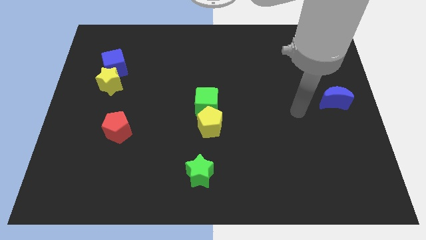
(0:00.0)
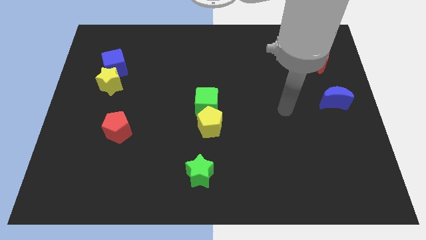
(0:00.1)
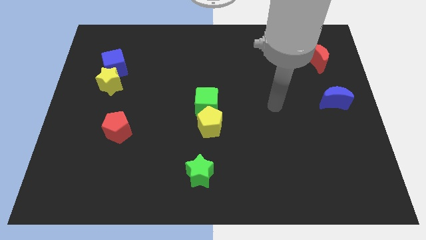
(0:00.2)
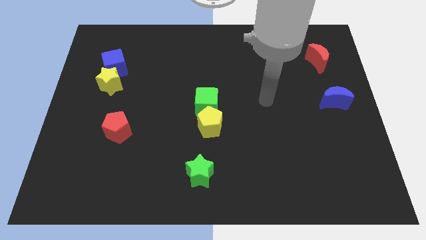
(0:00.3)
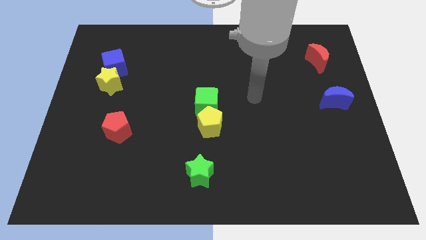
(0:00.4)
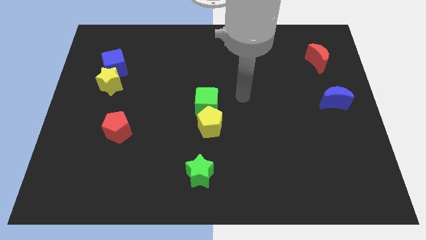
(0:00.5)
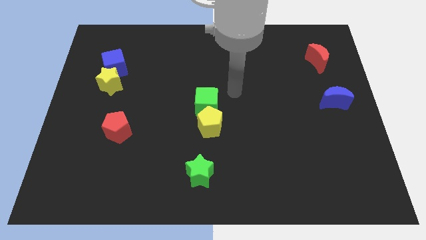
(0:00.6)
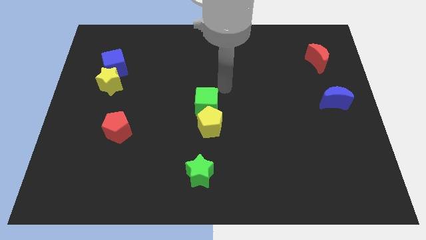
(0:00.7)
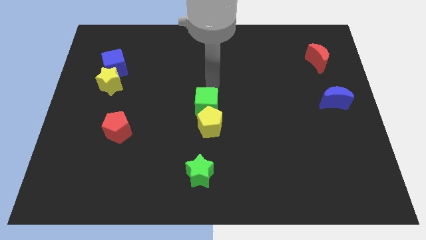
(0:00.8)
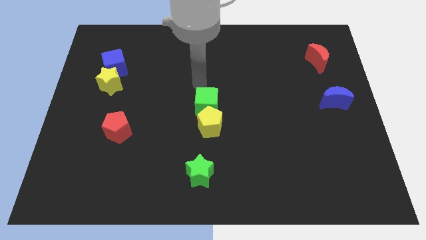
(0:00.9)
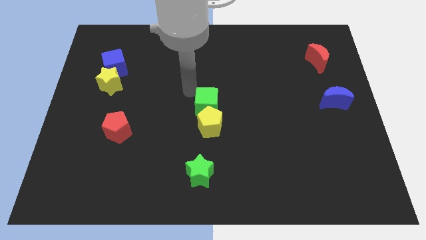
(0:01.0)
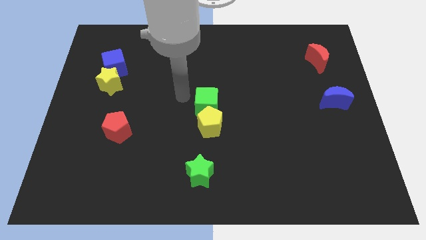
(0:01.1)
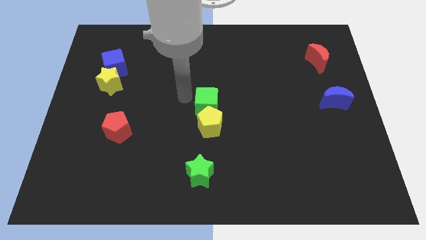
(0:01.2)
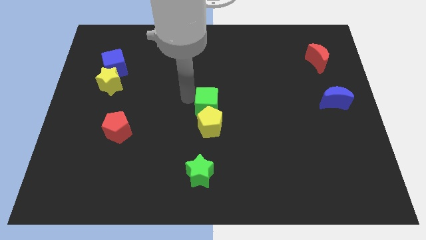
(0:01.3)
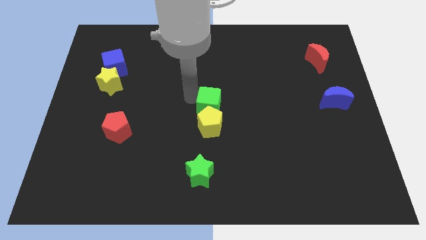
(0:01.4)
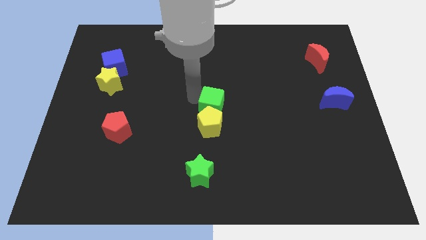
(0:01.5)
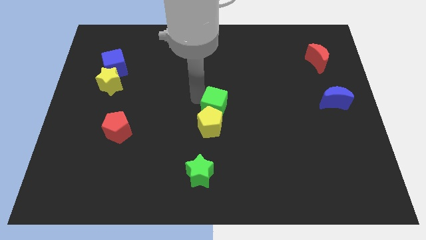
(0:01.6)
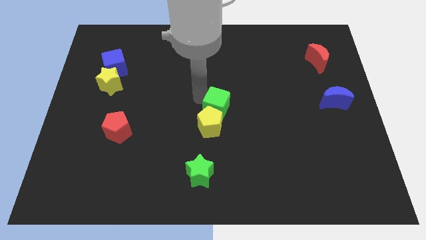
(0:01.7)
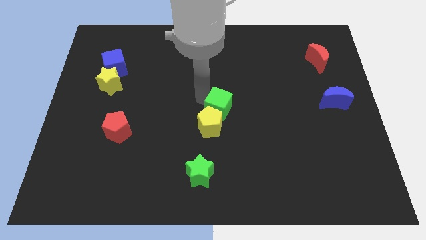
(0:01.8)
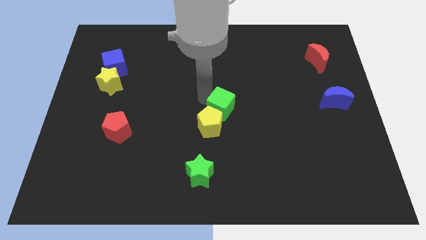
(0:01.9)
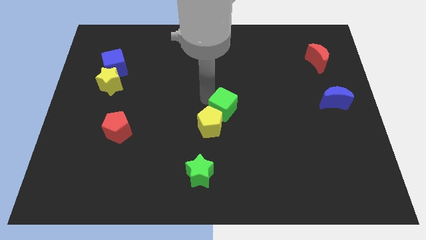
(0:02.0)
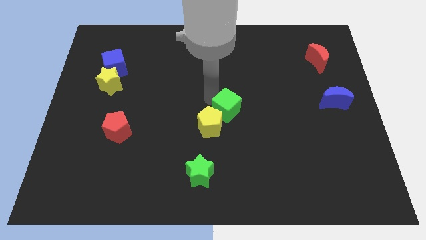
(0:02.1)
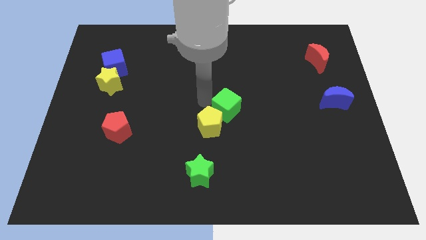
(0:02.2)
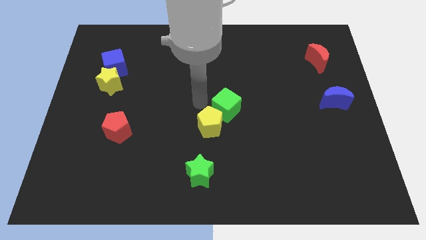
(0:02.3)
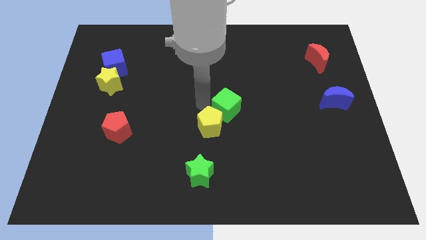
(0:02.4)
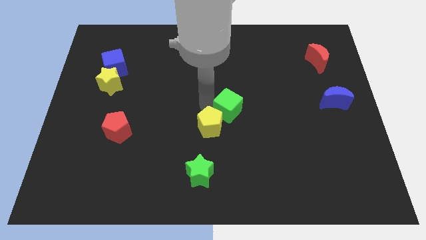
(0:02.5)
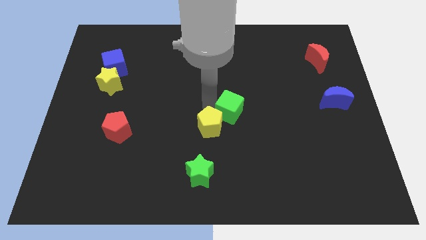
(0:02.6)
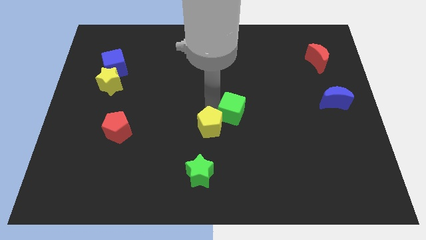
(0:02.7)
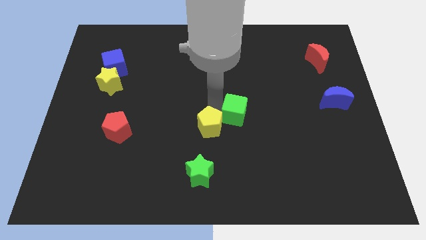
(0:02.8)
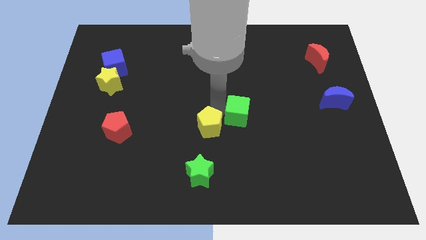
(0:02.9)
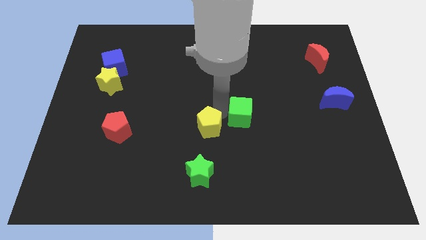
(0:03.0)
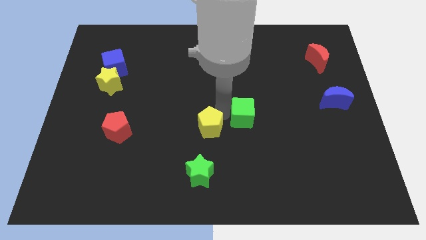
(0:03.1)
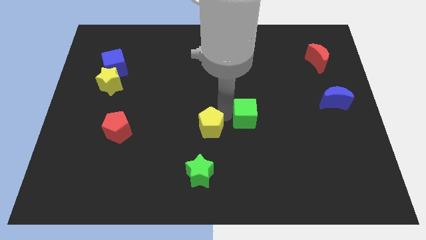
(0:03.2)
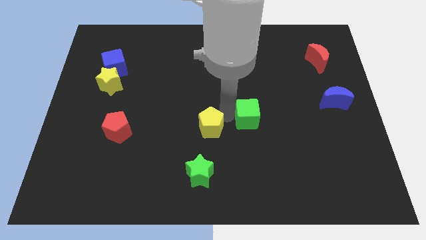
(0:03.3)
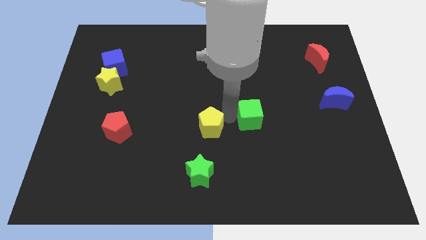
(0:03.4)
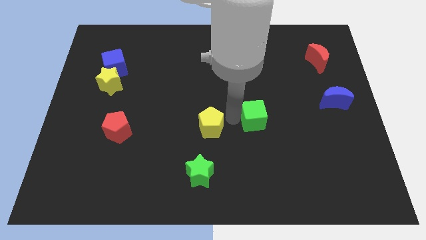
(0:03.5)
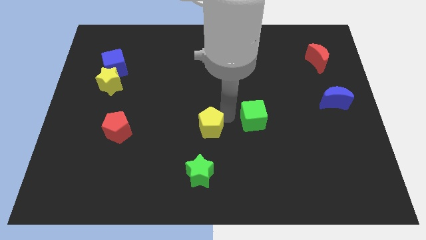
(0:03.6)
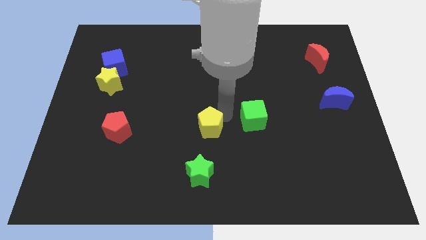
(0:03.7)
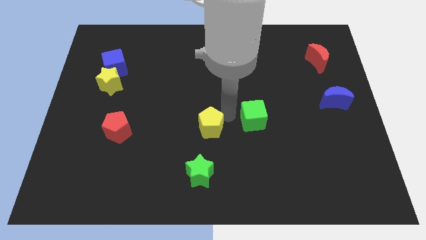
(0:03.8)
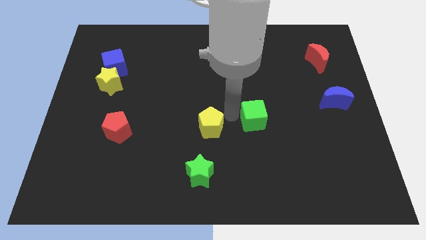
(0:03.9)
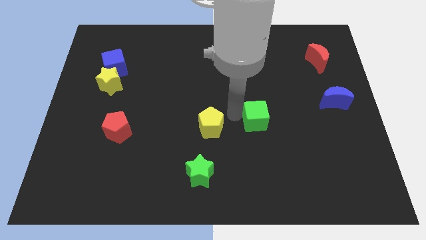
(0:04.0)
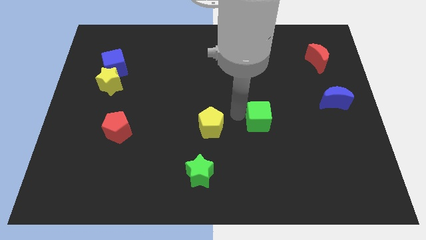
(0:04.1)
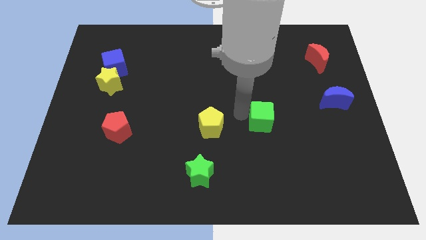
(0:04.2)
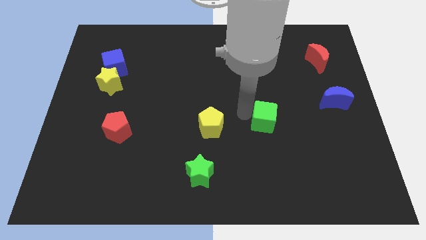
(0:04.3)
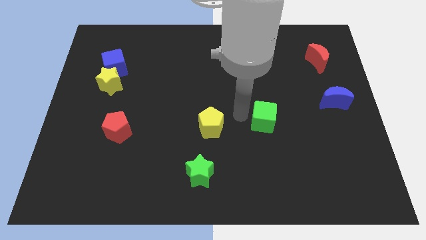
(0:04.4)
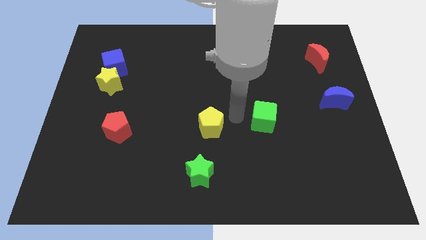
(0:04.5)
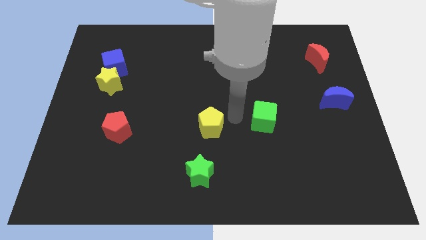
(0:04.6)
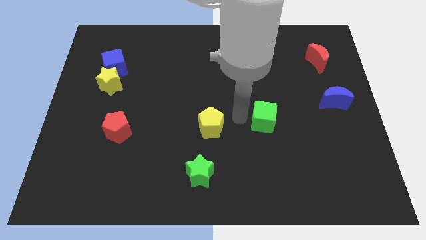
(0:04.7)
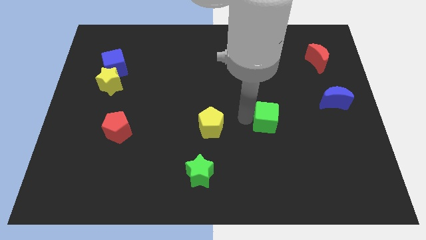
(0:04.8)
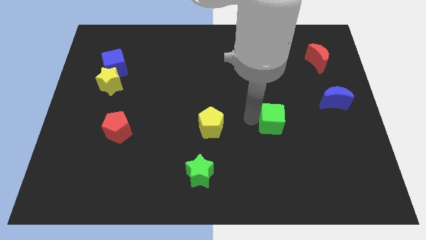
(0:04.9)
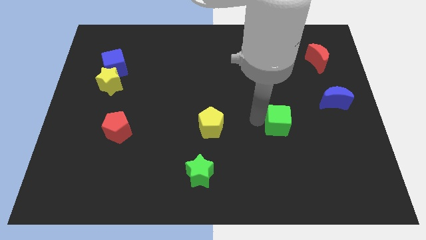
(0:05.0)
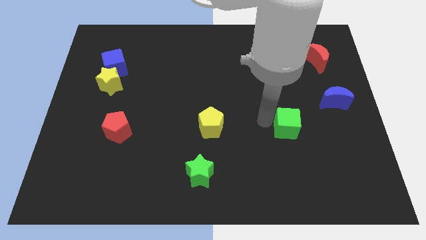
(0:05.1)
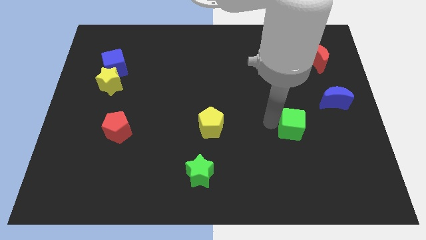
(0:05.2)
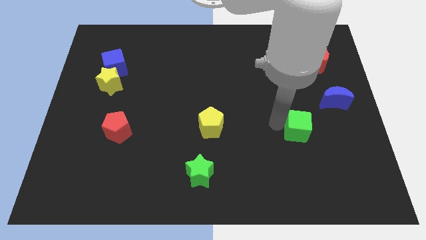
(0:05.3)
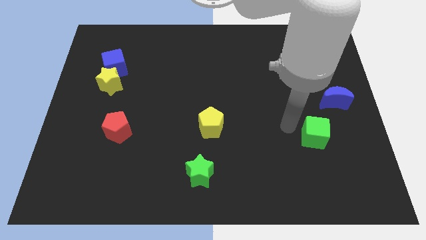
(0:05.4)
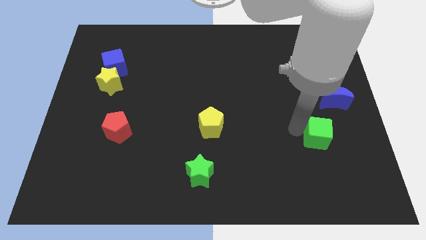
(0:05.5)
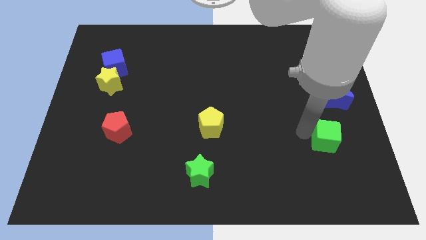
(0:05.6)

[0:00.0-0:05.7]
move the green cube to the bottom side of the blue moon

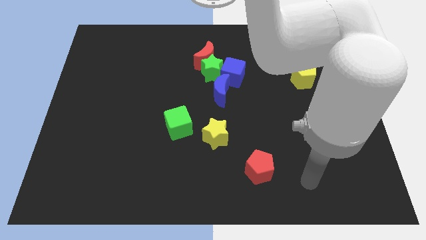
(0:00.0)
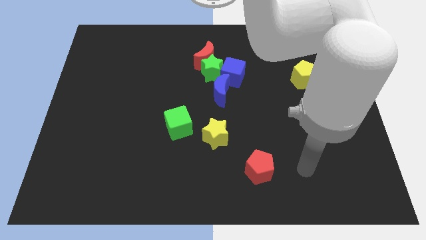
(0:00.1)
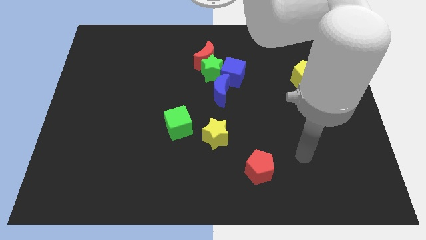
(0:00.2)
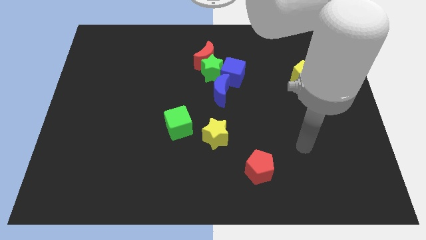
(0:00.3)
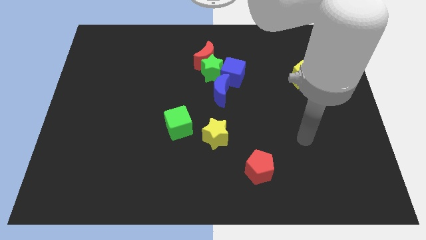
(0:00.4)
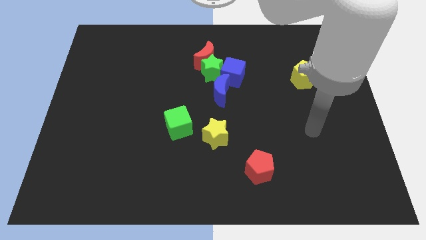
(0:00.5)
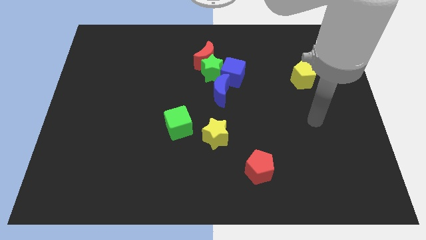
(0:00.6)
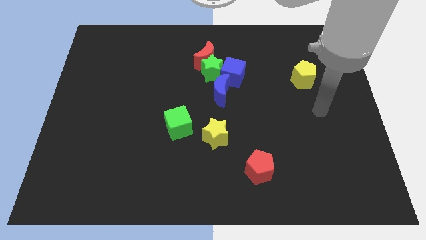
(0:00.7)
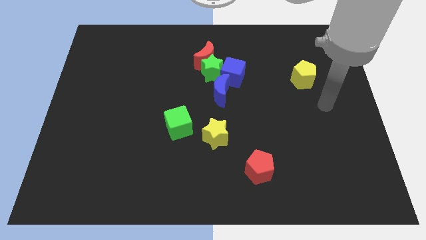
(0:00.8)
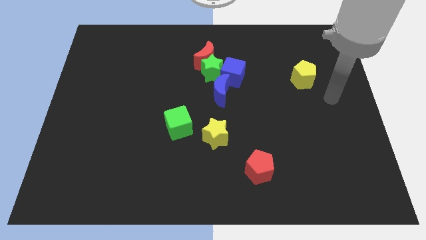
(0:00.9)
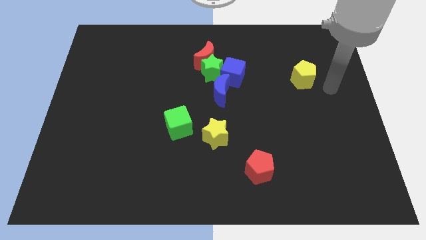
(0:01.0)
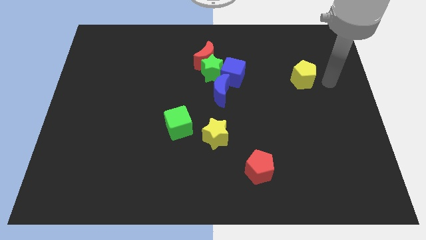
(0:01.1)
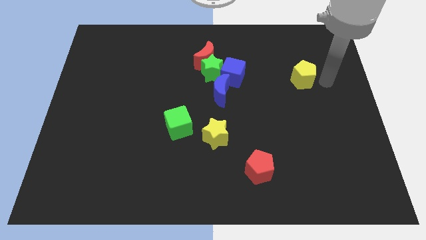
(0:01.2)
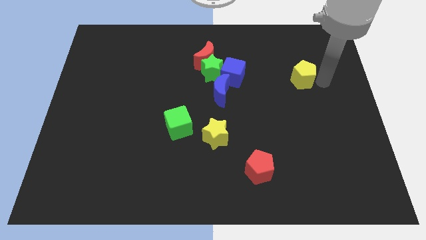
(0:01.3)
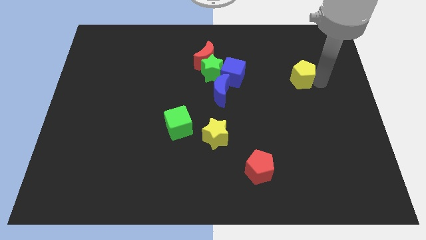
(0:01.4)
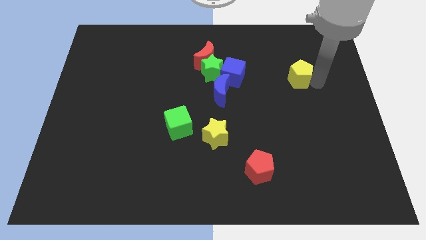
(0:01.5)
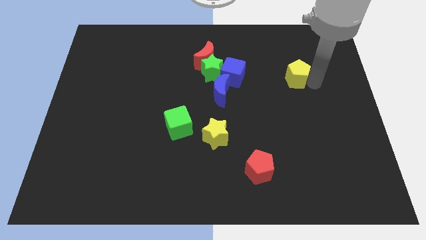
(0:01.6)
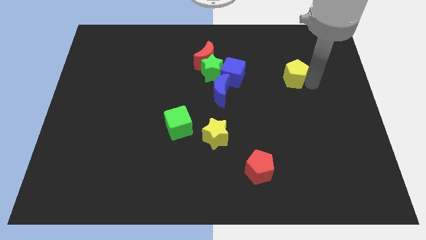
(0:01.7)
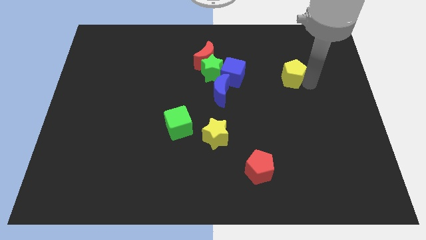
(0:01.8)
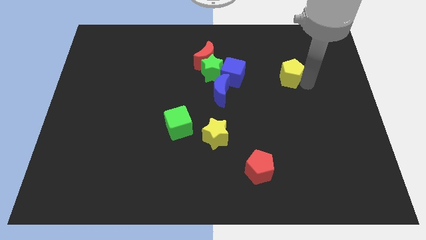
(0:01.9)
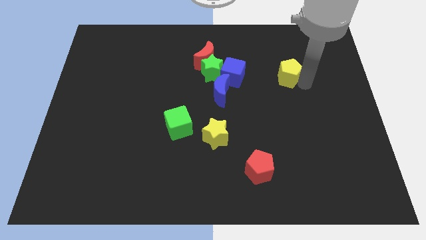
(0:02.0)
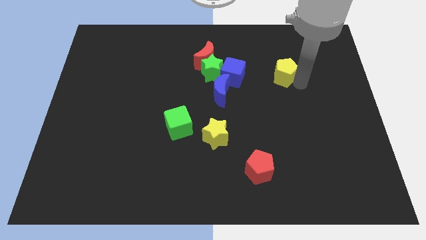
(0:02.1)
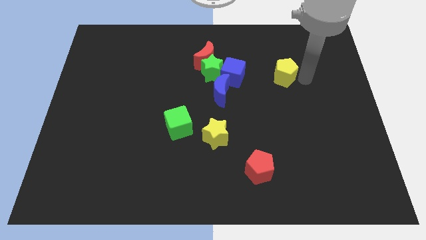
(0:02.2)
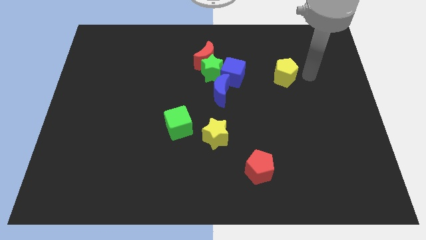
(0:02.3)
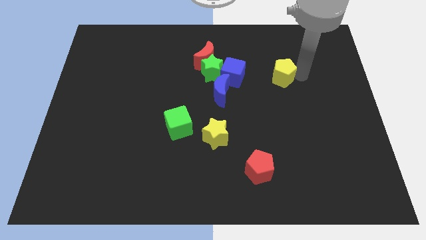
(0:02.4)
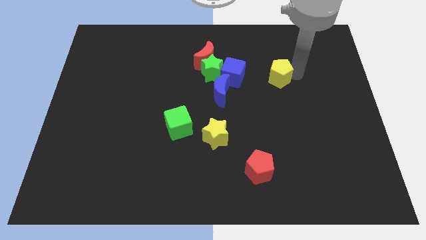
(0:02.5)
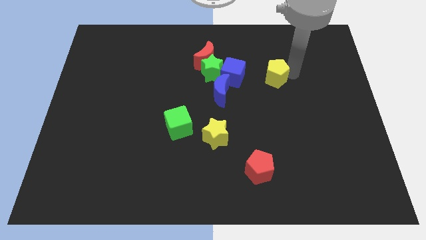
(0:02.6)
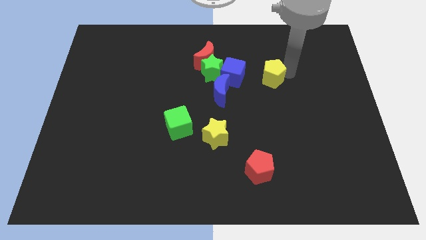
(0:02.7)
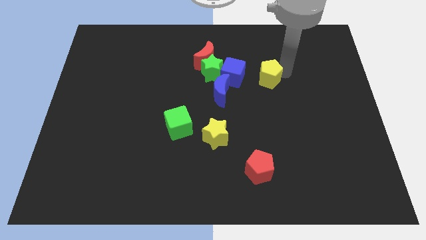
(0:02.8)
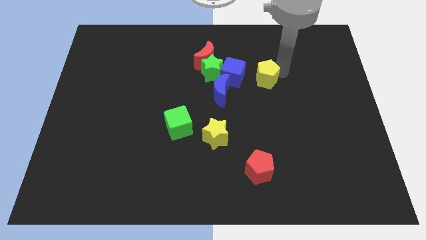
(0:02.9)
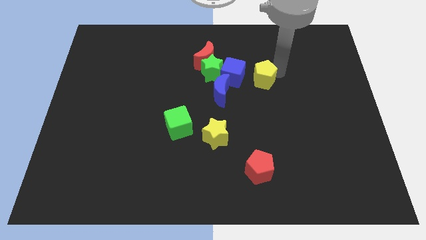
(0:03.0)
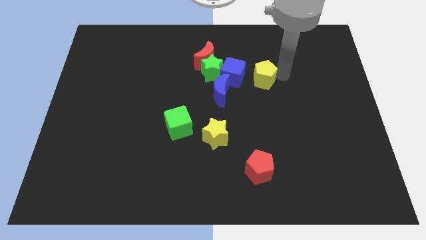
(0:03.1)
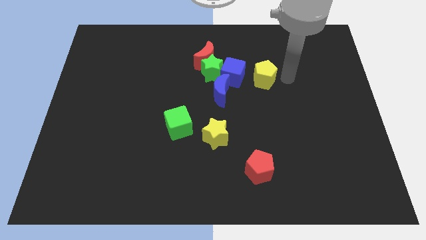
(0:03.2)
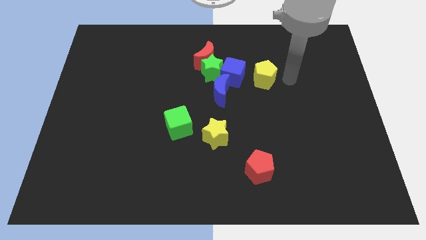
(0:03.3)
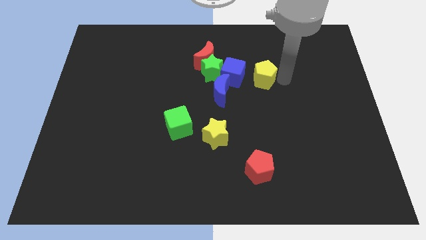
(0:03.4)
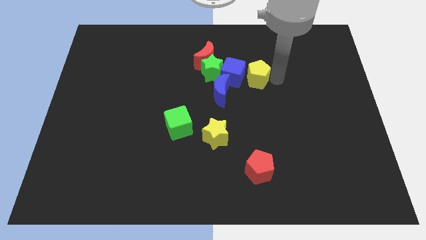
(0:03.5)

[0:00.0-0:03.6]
slide the yellow pentagon to the top right side of the blue moon
